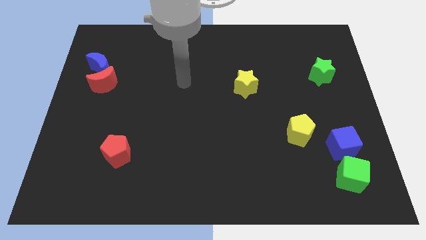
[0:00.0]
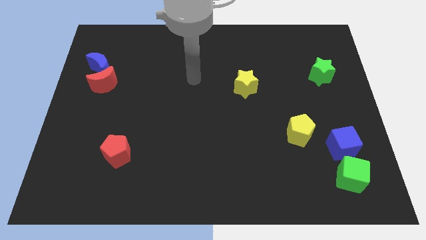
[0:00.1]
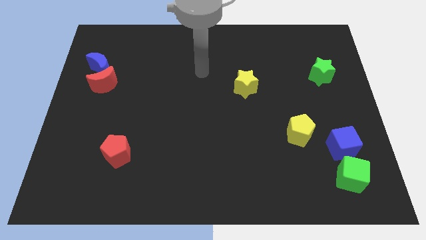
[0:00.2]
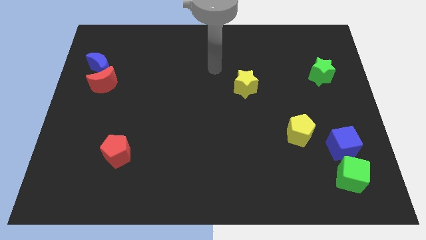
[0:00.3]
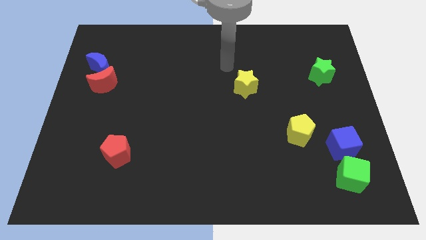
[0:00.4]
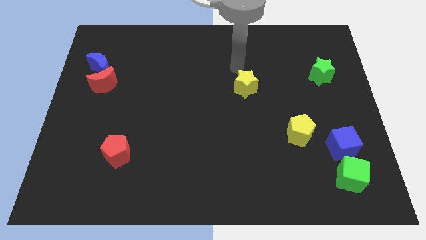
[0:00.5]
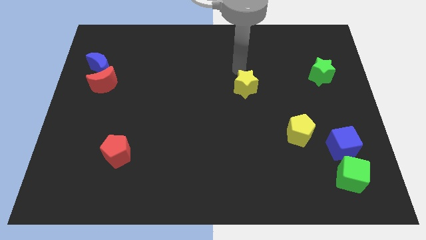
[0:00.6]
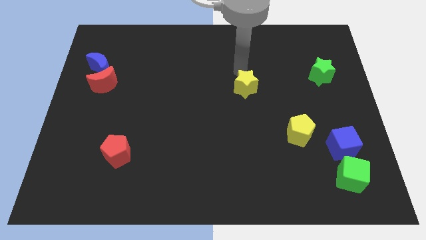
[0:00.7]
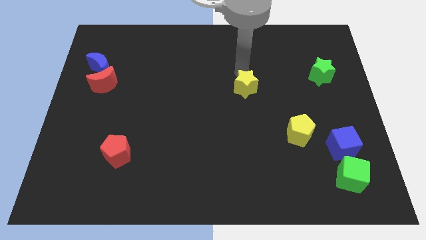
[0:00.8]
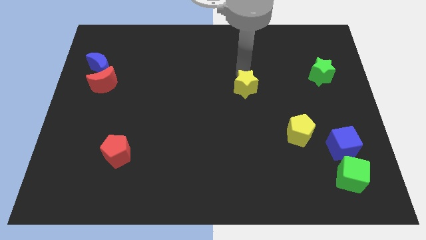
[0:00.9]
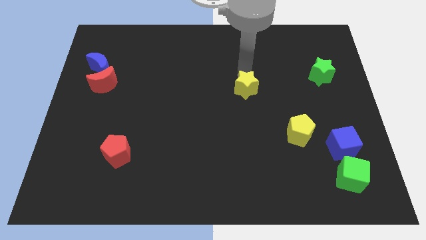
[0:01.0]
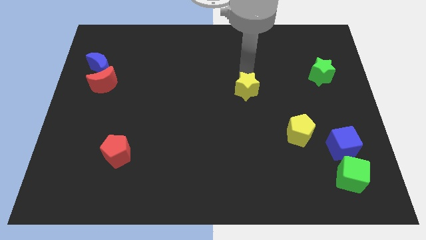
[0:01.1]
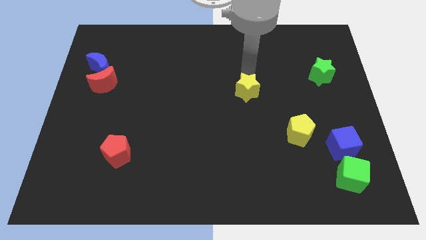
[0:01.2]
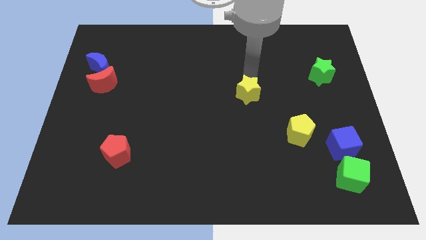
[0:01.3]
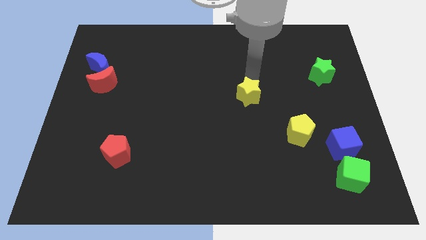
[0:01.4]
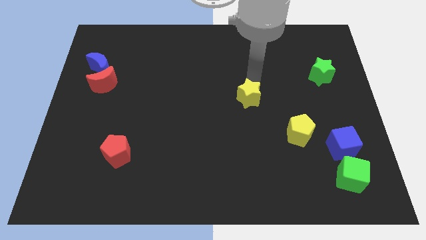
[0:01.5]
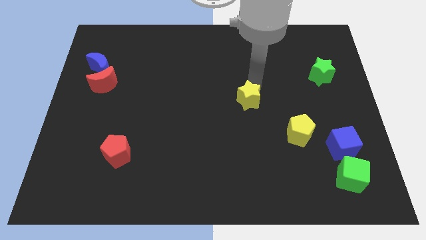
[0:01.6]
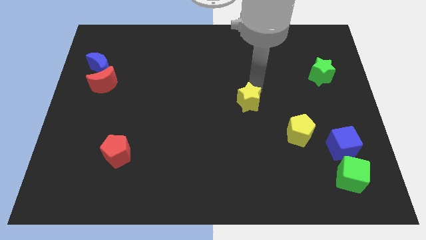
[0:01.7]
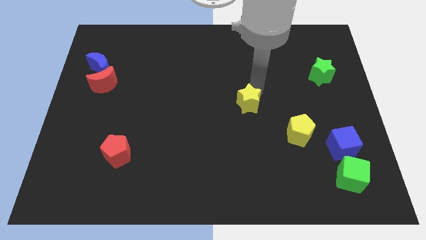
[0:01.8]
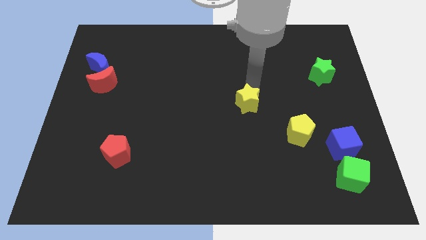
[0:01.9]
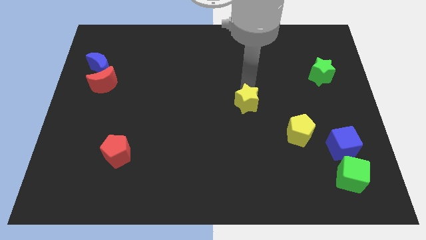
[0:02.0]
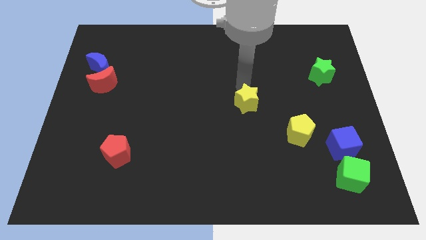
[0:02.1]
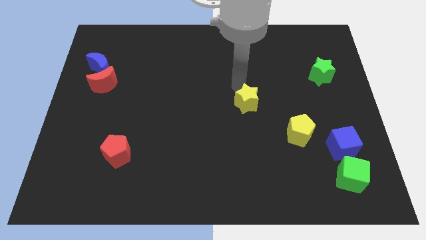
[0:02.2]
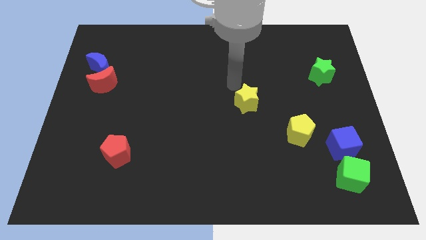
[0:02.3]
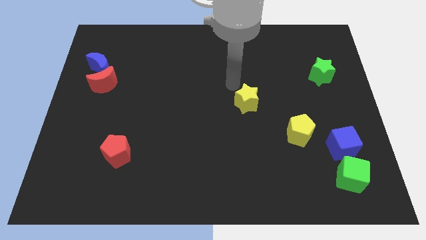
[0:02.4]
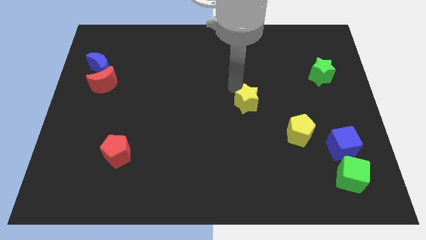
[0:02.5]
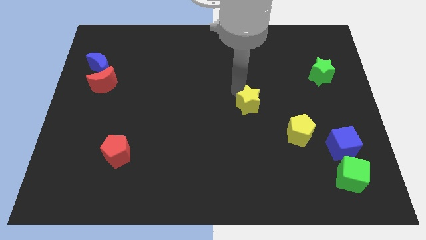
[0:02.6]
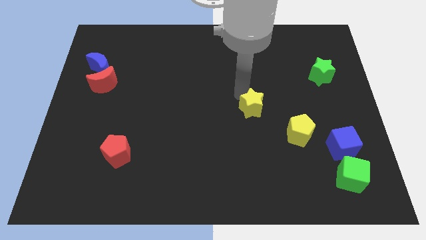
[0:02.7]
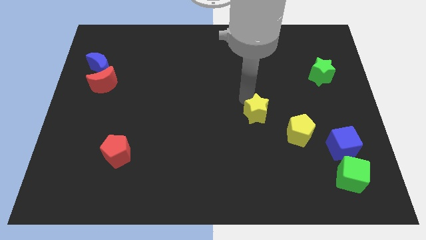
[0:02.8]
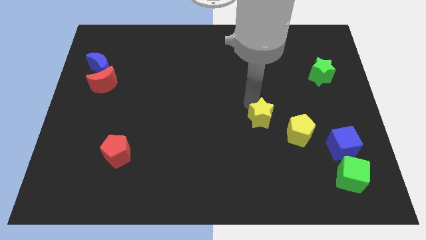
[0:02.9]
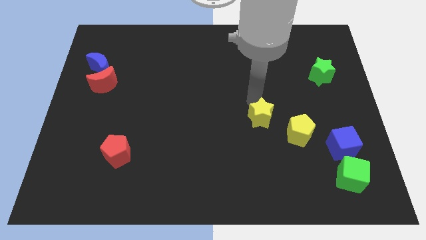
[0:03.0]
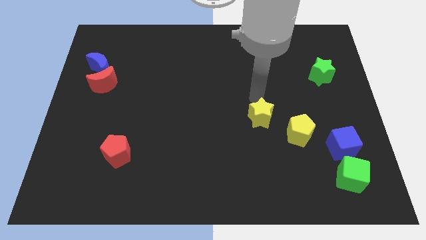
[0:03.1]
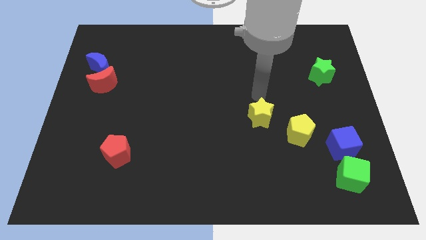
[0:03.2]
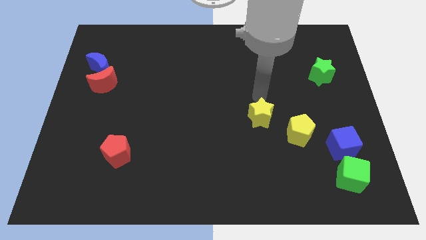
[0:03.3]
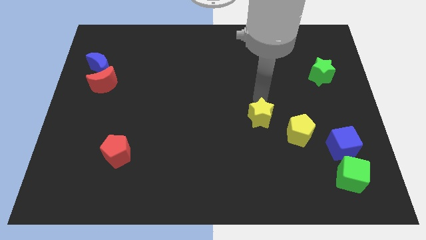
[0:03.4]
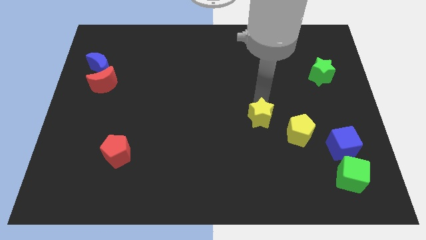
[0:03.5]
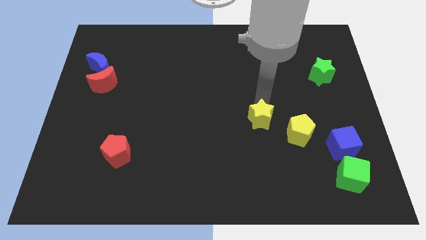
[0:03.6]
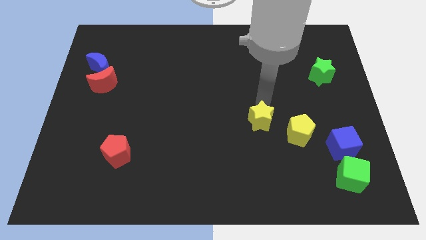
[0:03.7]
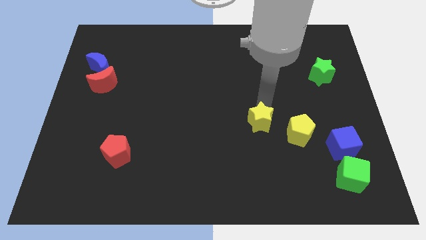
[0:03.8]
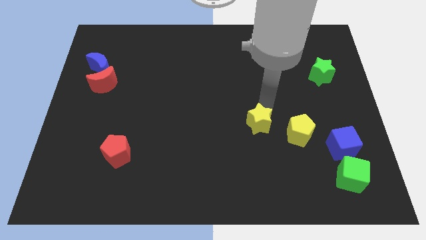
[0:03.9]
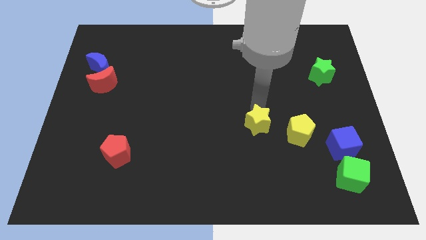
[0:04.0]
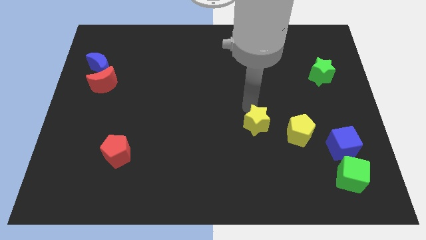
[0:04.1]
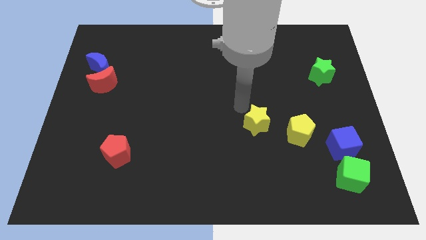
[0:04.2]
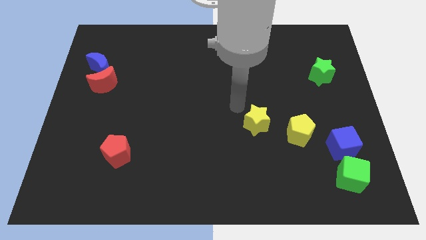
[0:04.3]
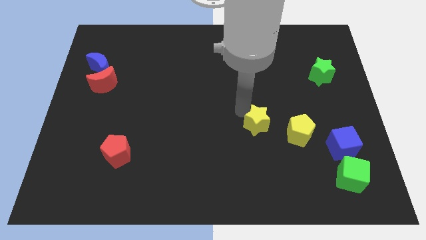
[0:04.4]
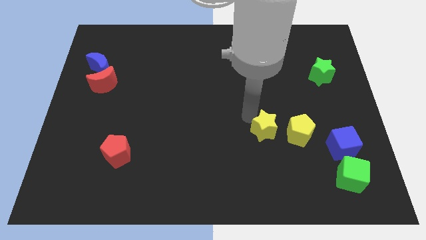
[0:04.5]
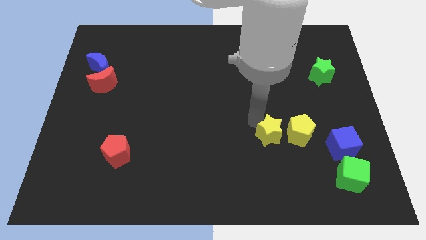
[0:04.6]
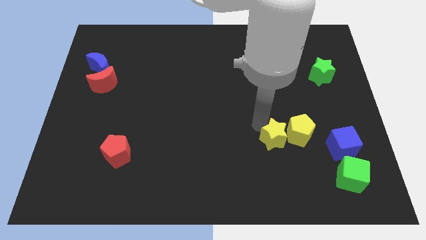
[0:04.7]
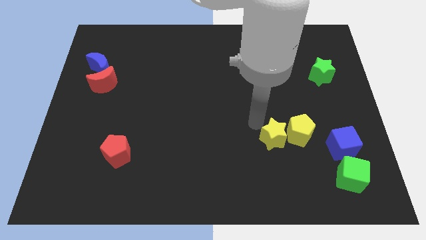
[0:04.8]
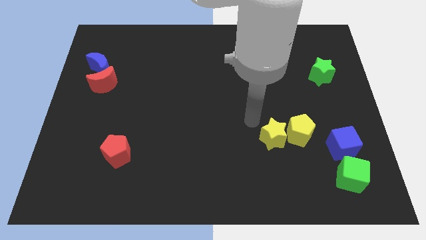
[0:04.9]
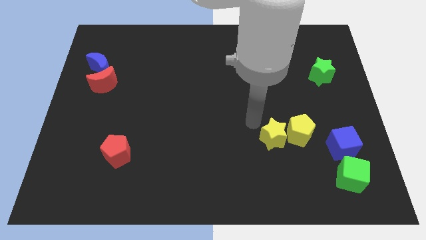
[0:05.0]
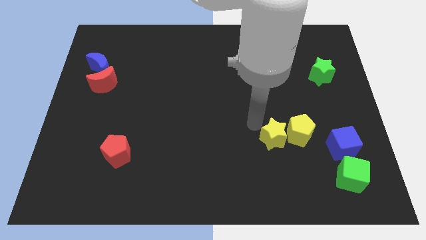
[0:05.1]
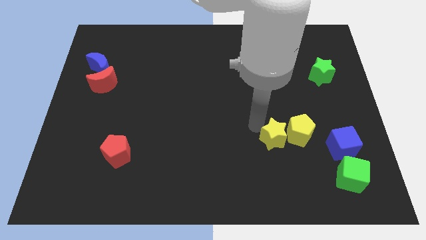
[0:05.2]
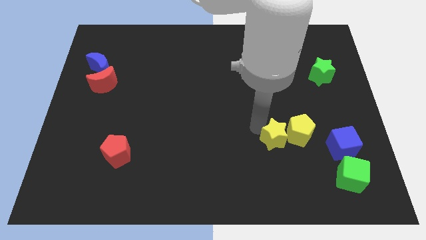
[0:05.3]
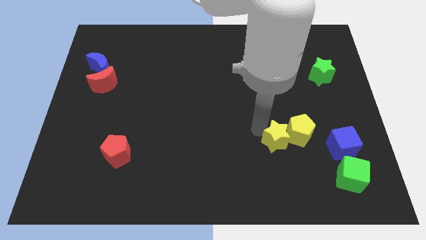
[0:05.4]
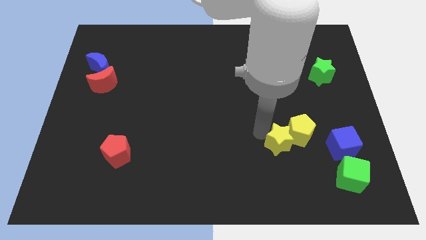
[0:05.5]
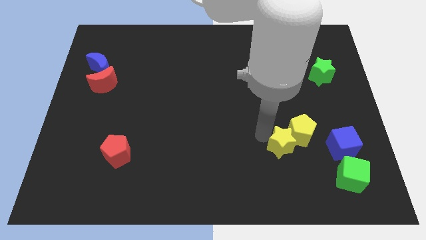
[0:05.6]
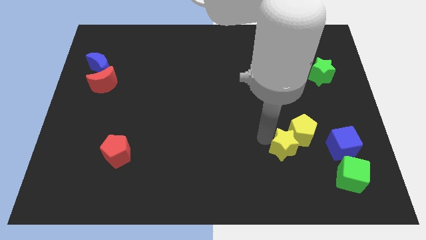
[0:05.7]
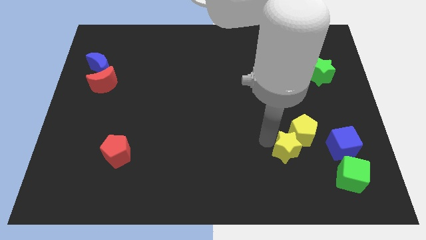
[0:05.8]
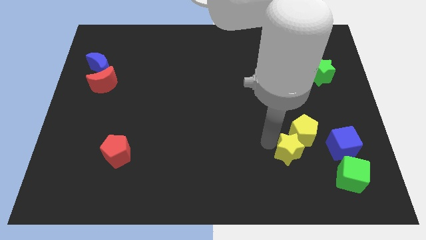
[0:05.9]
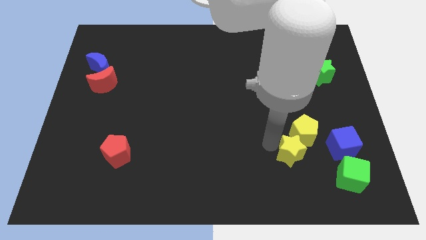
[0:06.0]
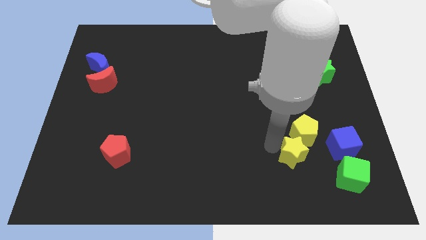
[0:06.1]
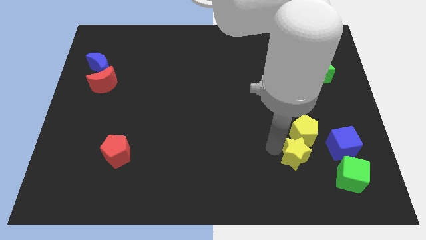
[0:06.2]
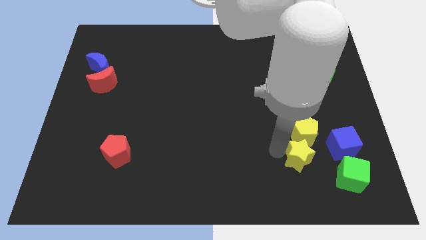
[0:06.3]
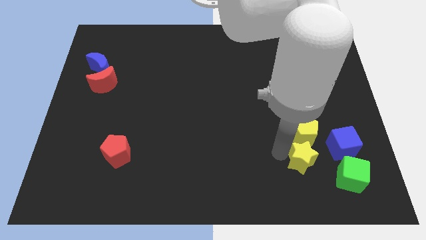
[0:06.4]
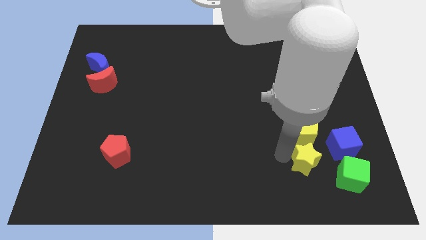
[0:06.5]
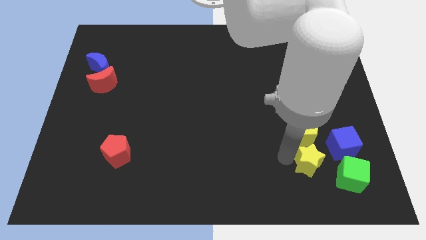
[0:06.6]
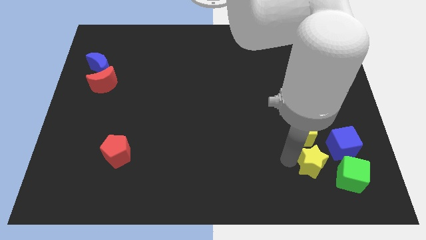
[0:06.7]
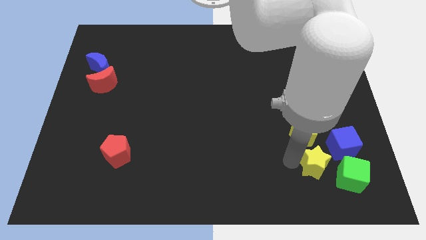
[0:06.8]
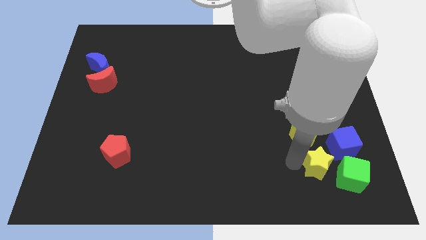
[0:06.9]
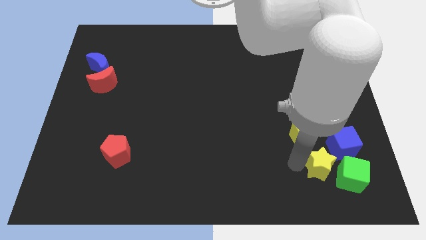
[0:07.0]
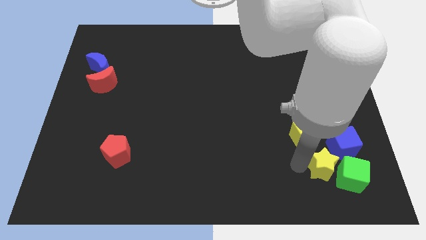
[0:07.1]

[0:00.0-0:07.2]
push the yellow star towards the green cube
